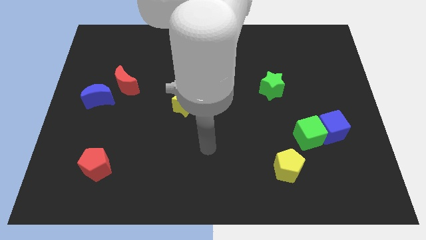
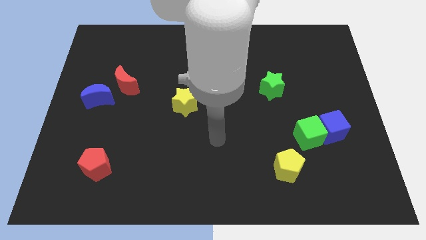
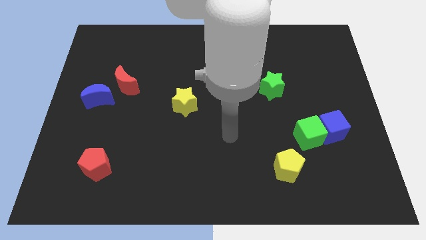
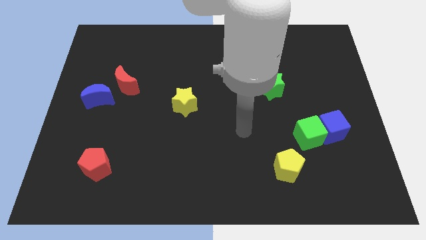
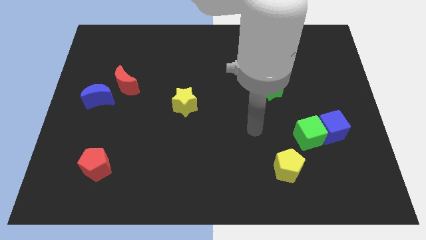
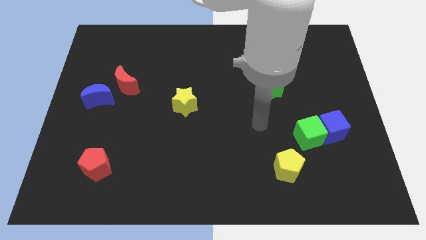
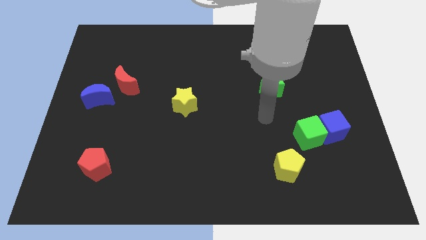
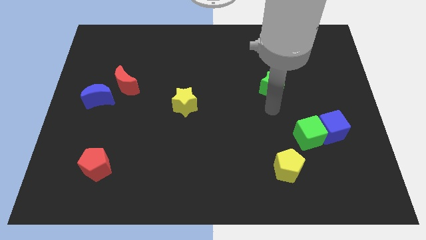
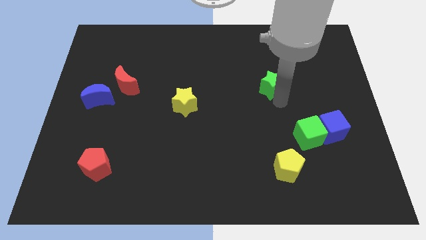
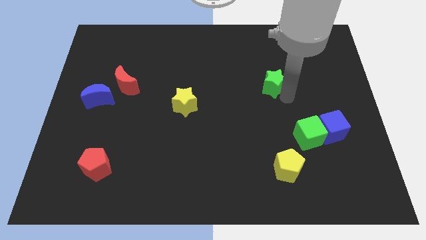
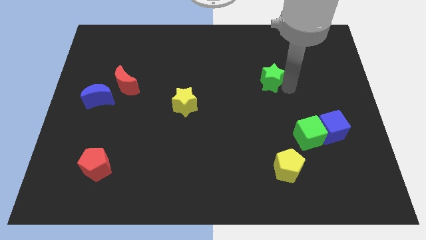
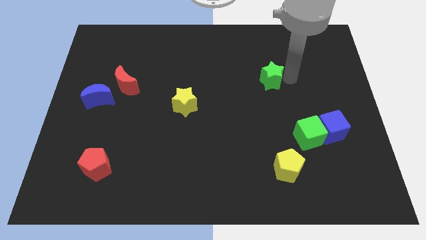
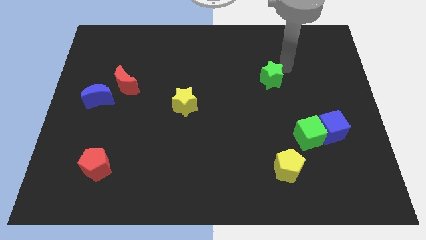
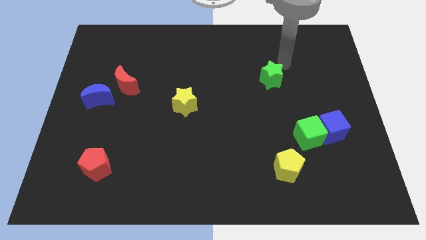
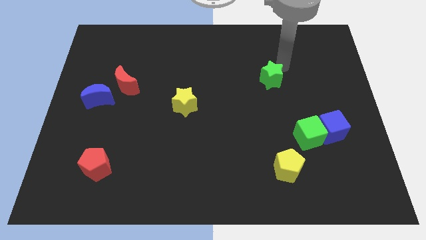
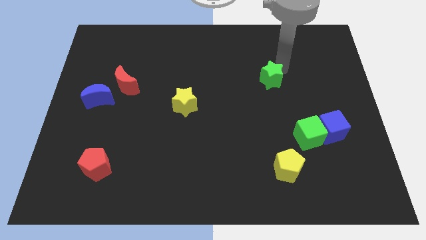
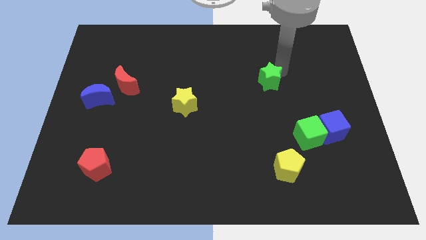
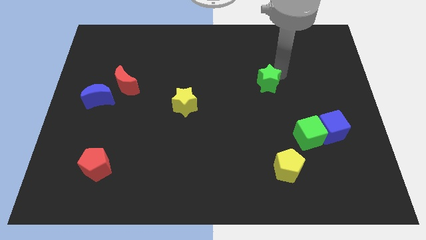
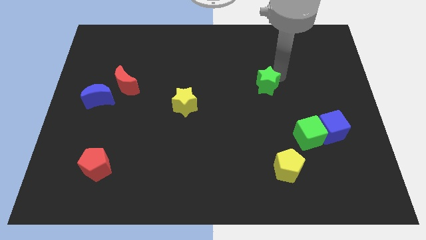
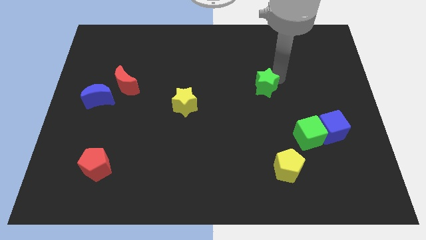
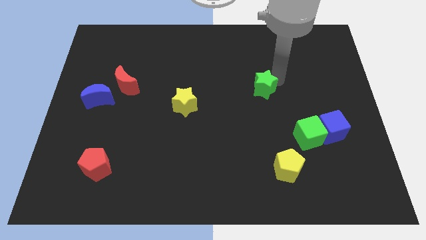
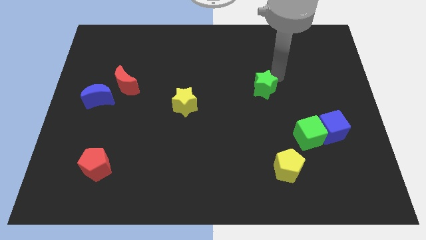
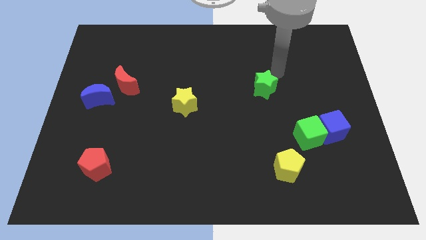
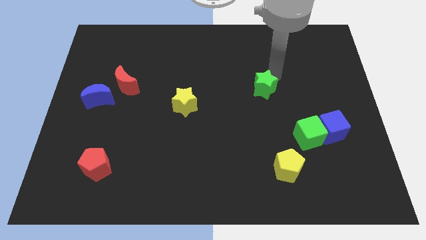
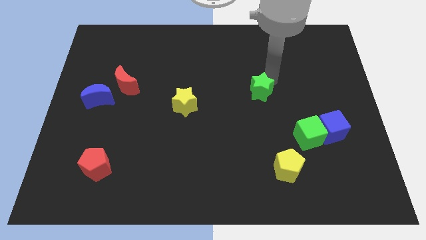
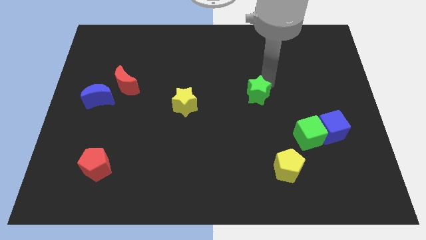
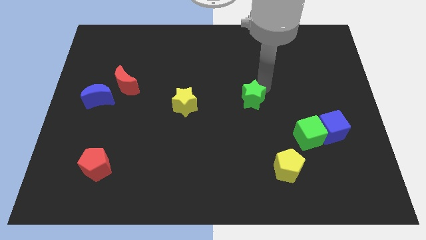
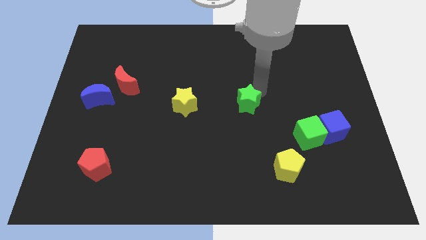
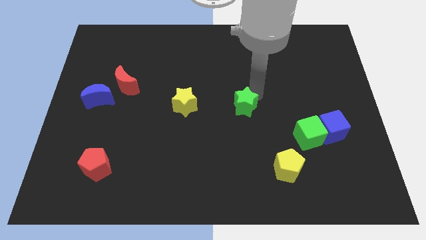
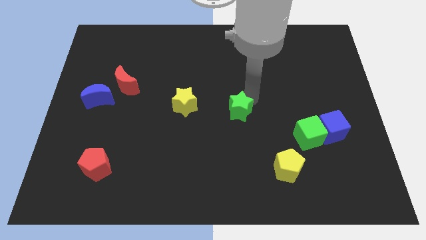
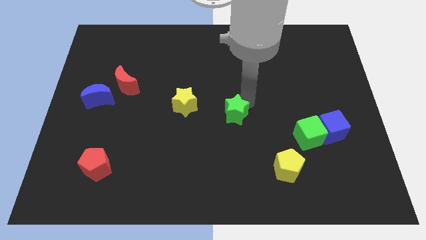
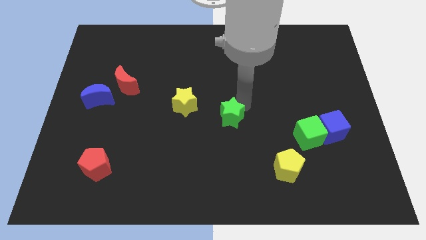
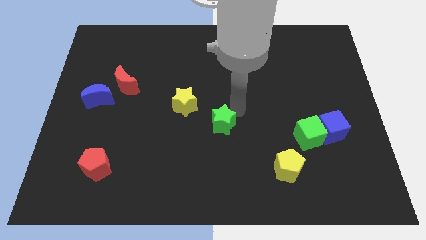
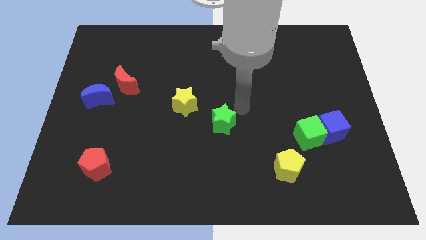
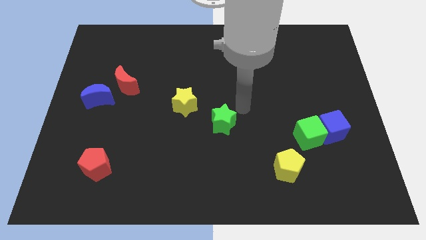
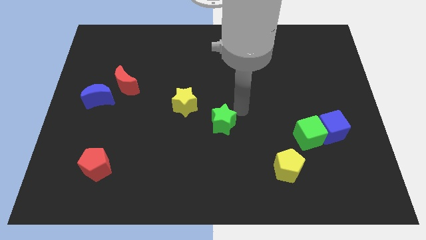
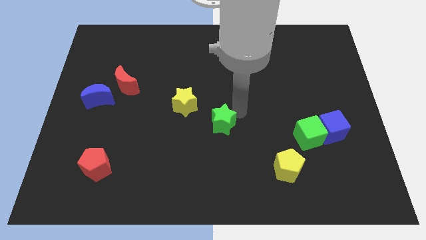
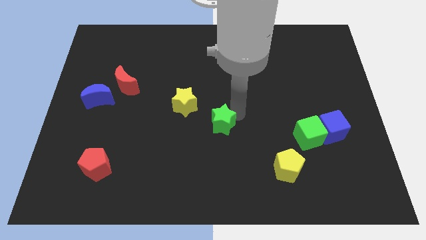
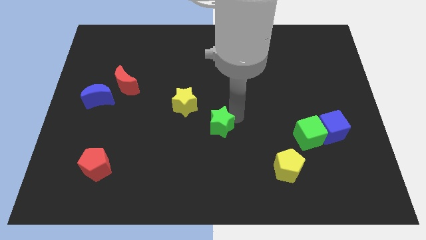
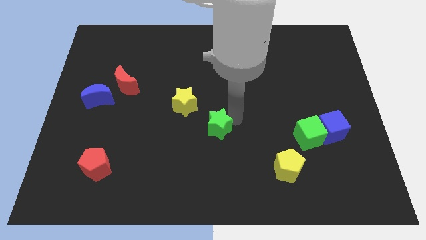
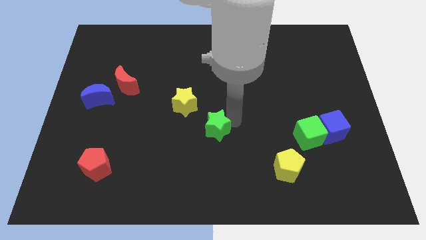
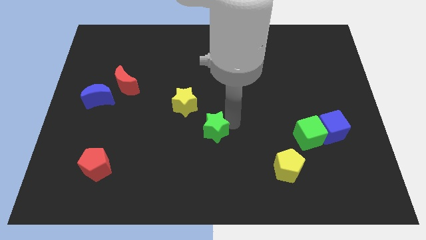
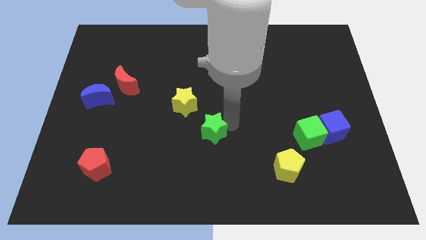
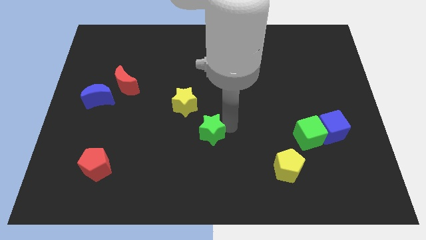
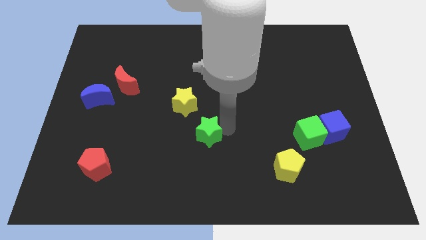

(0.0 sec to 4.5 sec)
push the green star diagonally down and left

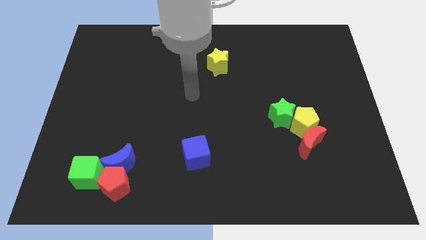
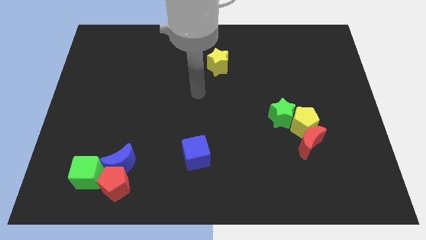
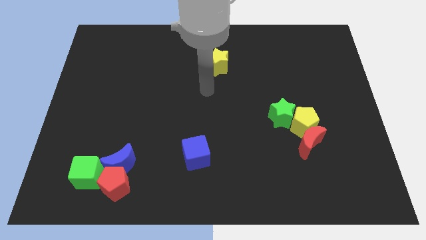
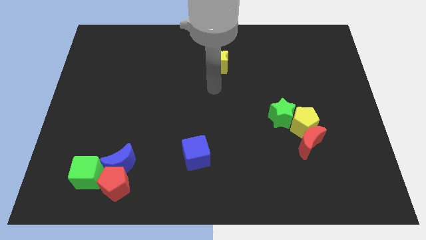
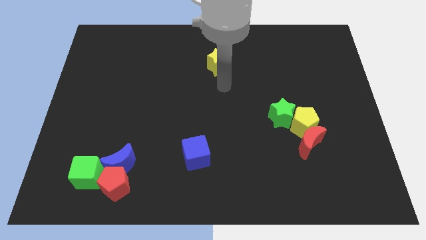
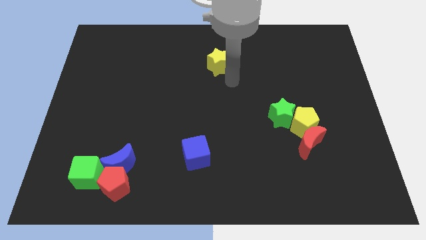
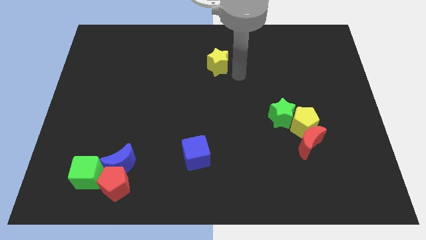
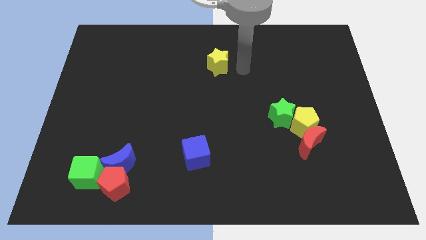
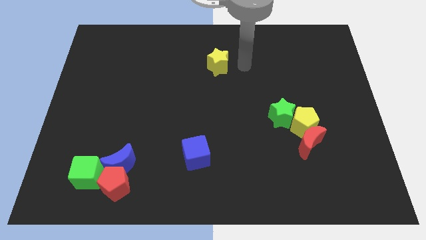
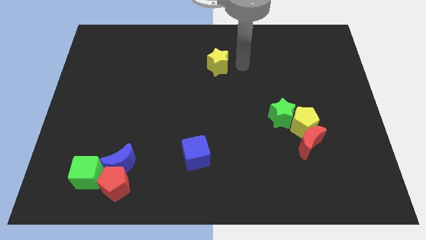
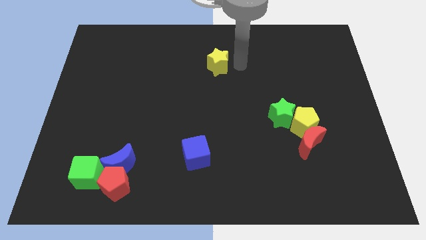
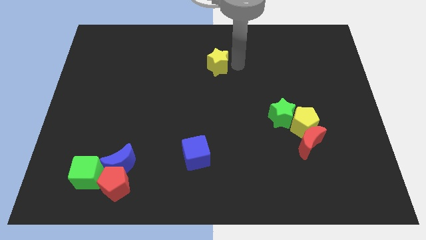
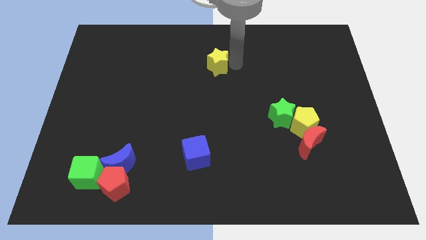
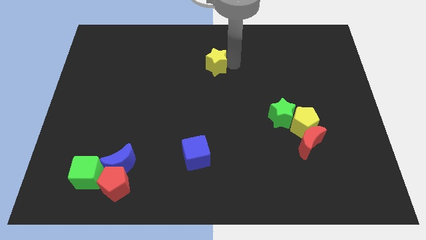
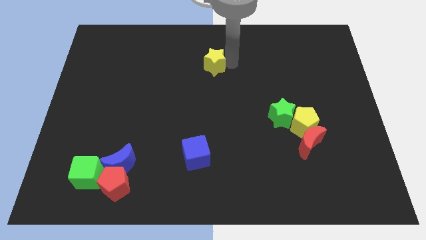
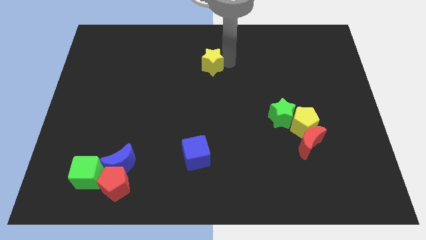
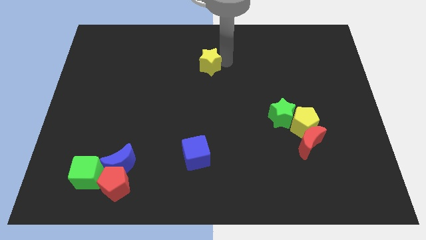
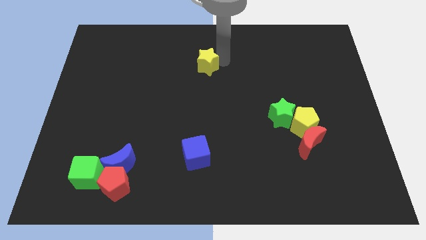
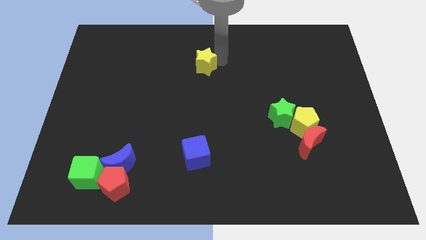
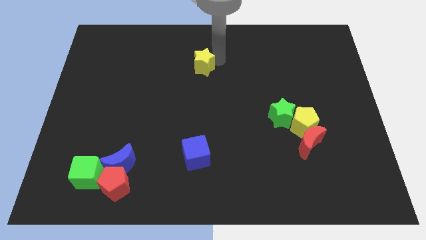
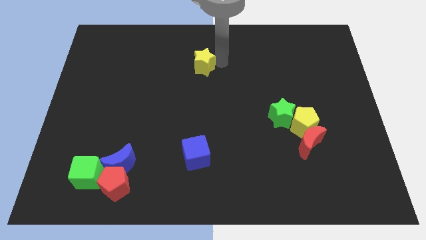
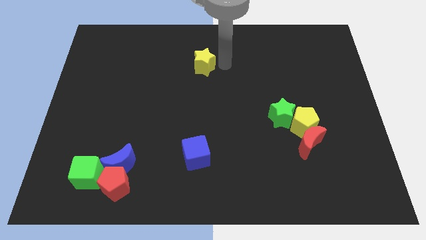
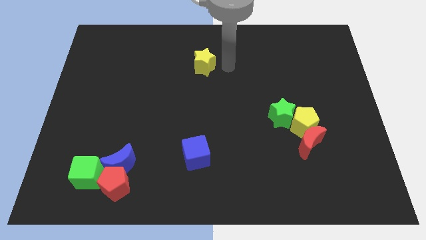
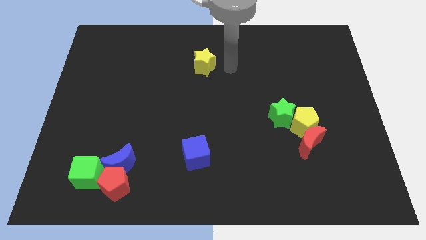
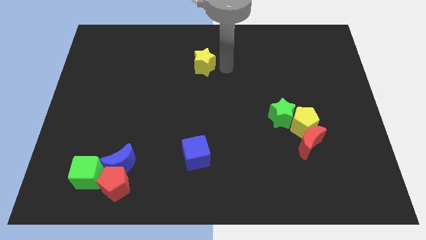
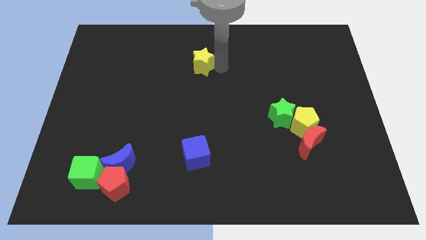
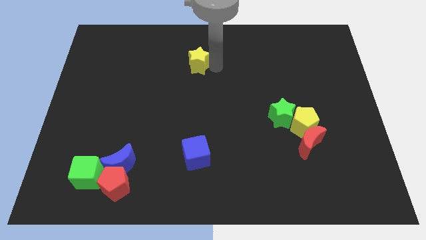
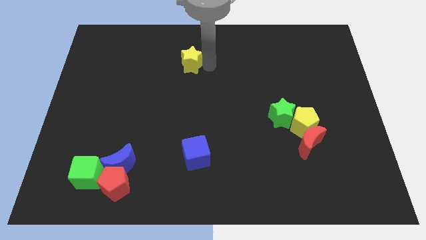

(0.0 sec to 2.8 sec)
slightly slide the yellow star to the left

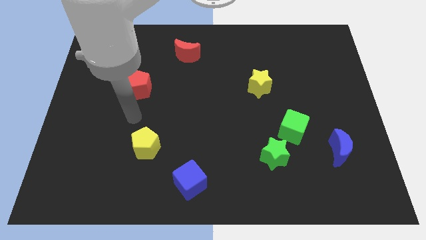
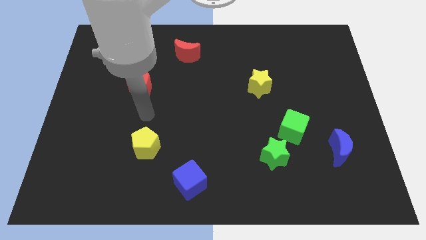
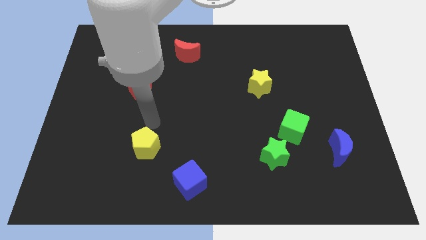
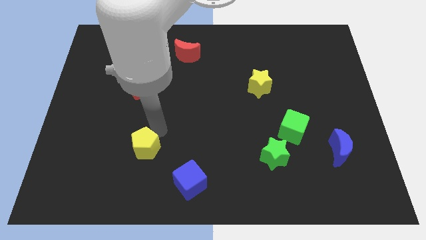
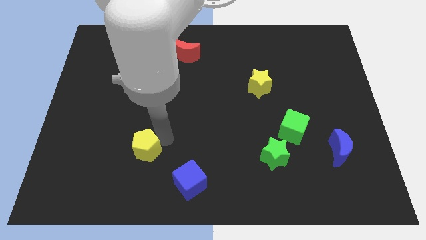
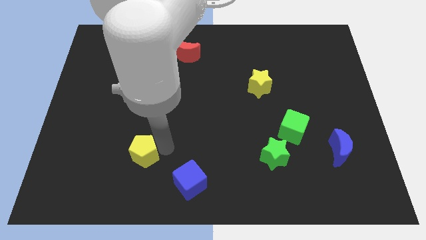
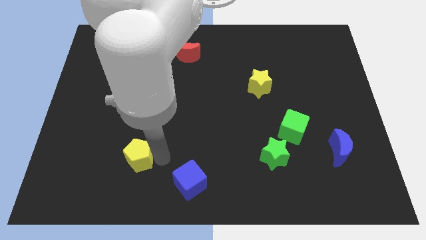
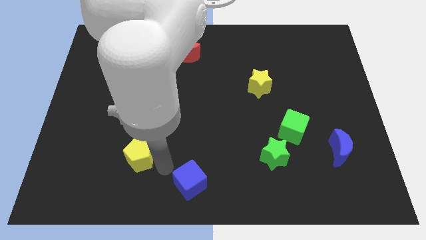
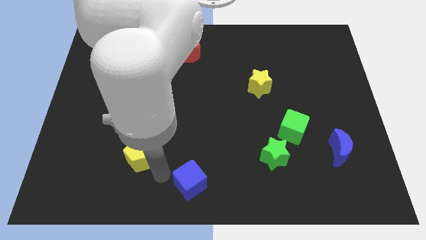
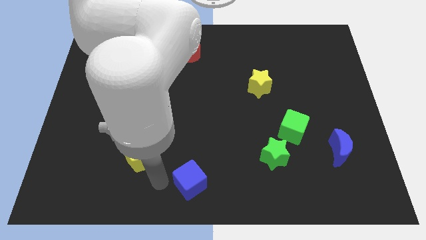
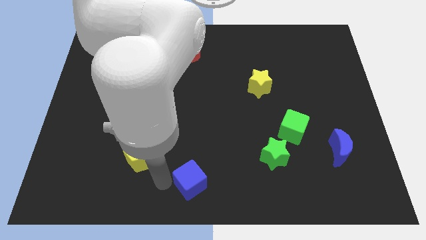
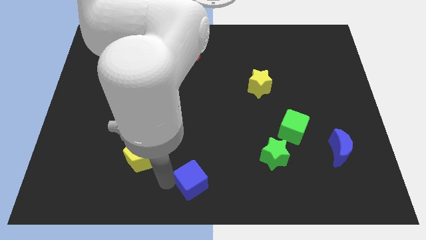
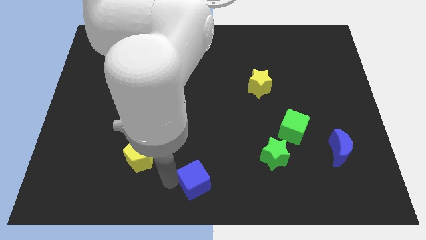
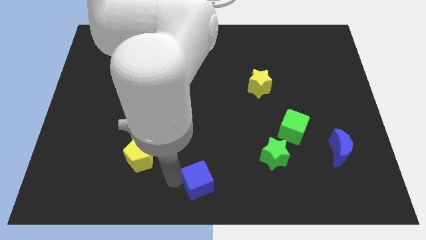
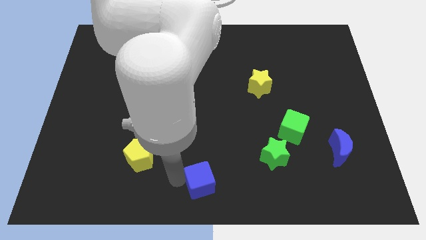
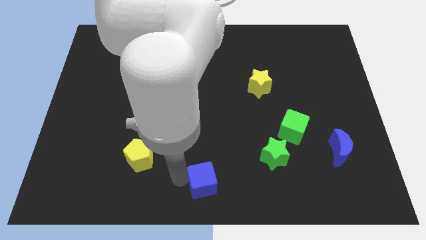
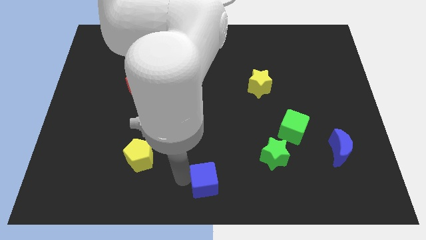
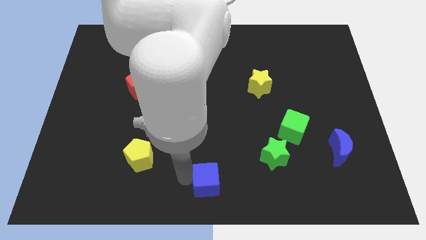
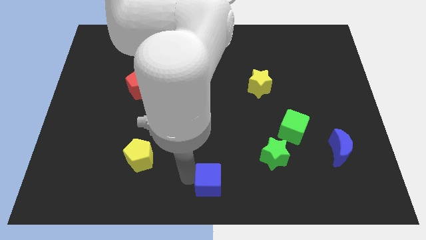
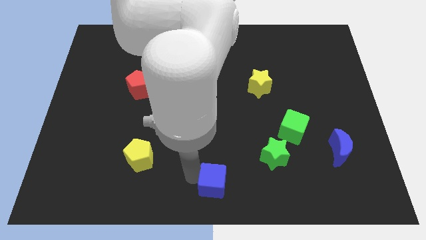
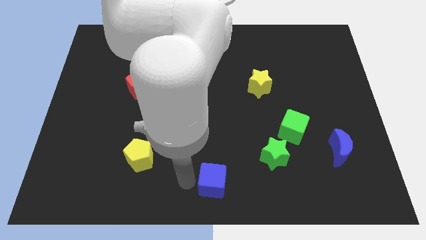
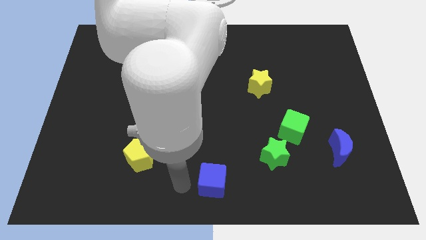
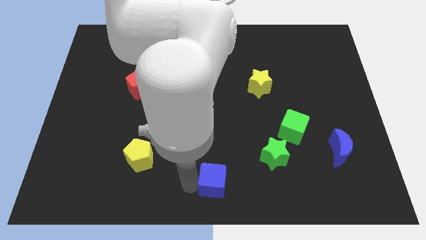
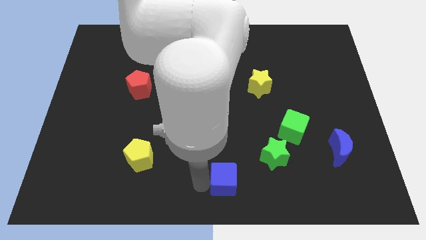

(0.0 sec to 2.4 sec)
slightly push the blue cube right
